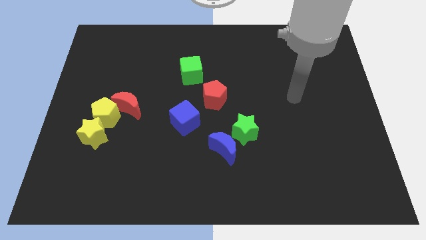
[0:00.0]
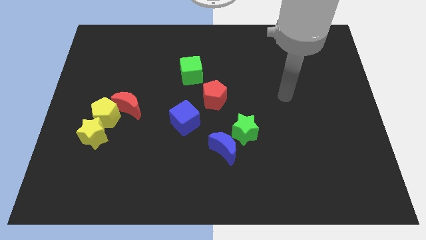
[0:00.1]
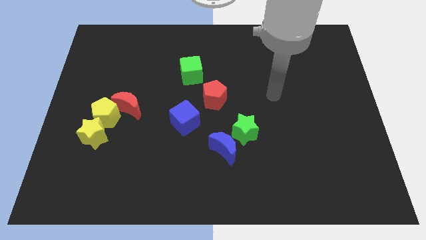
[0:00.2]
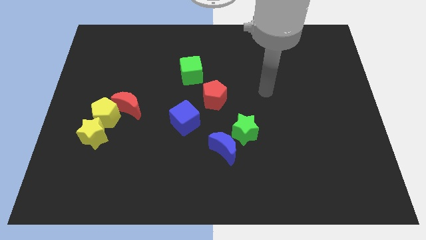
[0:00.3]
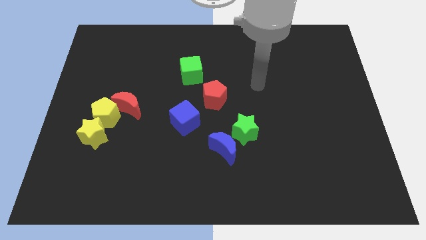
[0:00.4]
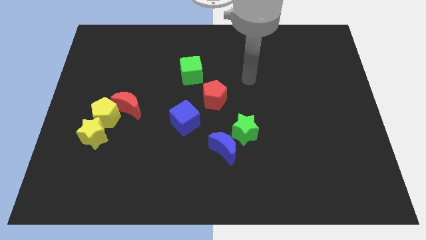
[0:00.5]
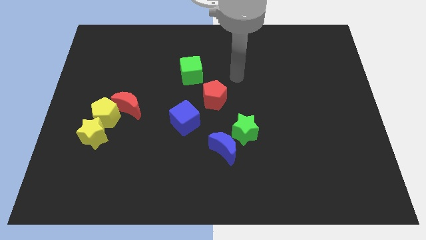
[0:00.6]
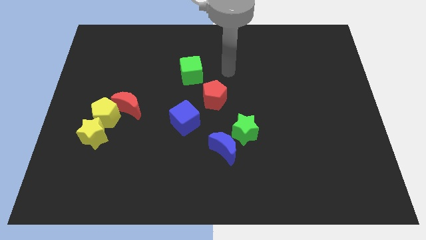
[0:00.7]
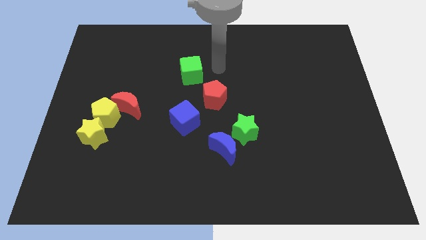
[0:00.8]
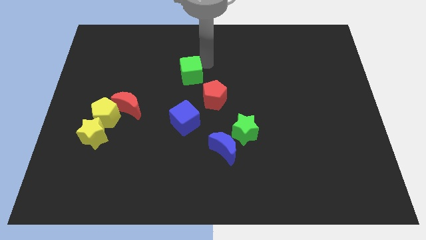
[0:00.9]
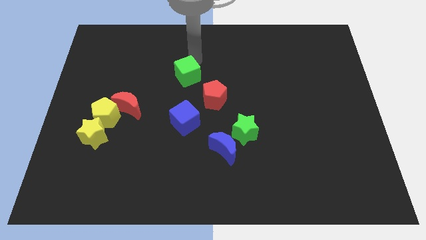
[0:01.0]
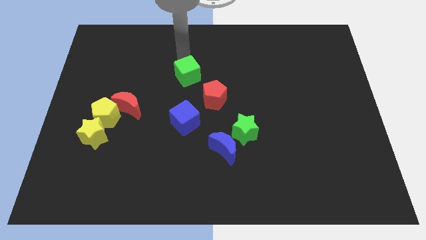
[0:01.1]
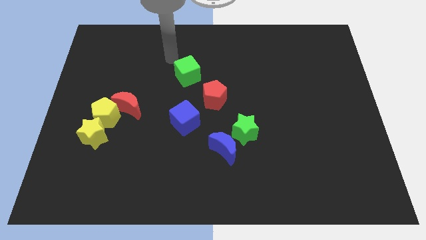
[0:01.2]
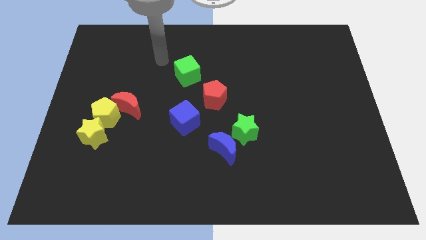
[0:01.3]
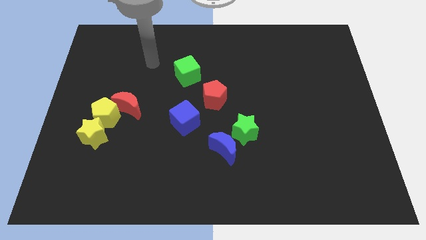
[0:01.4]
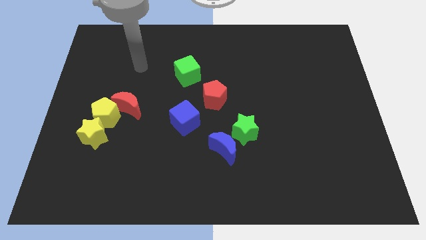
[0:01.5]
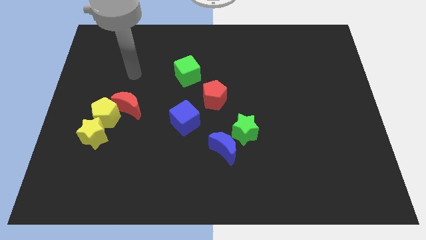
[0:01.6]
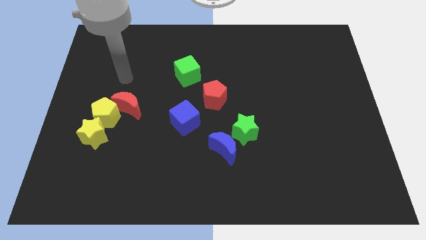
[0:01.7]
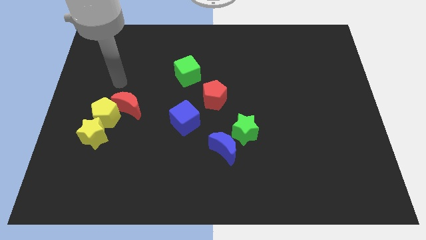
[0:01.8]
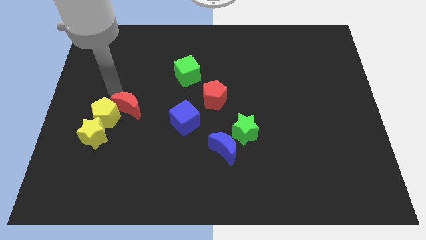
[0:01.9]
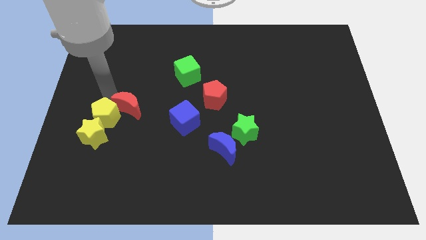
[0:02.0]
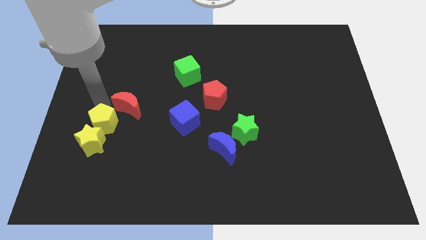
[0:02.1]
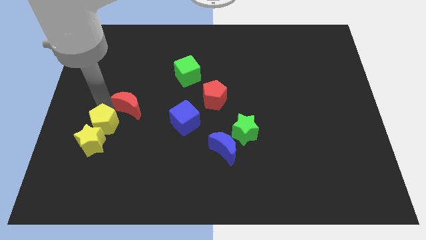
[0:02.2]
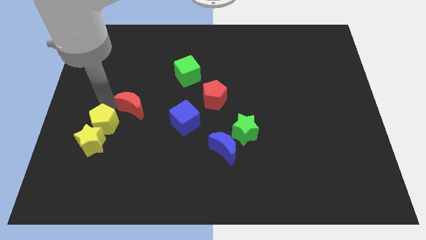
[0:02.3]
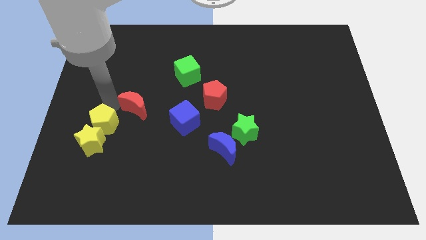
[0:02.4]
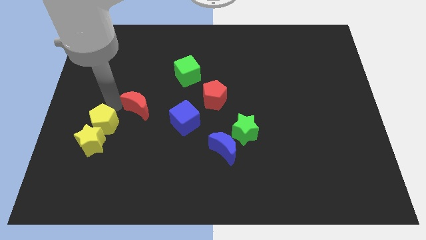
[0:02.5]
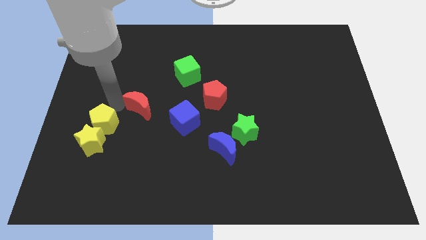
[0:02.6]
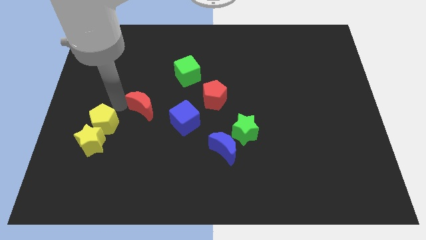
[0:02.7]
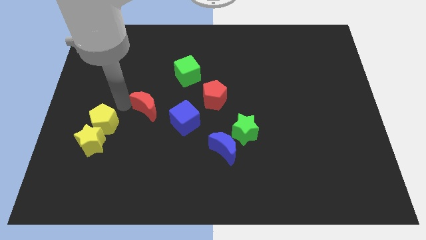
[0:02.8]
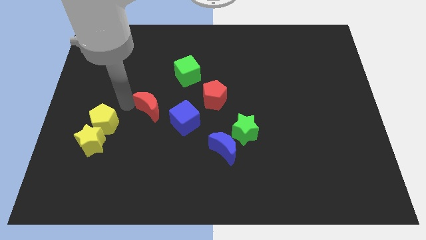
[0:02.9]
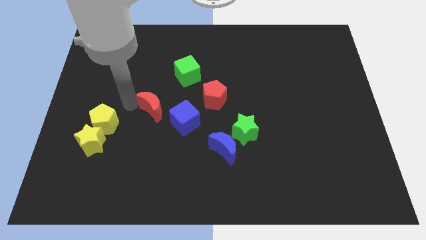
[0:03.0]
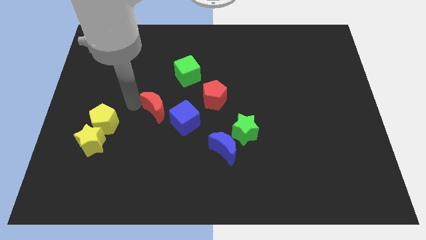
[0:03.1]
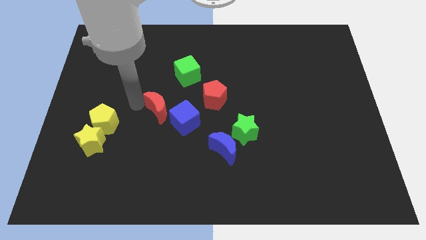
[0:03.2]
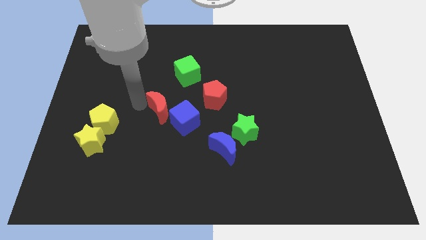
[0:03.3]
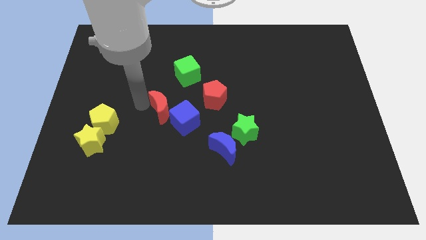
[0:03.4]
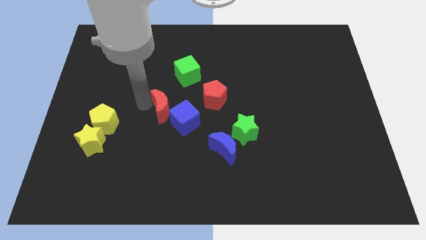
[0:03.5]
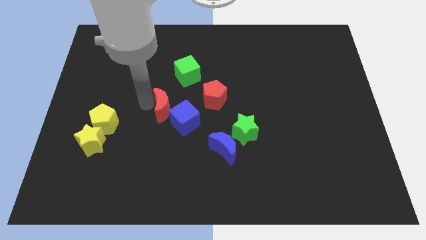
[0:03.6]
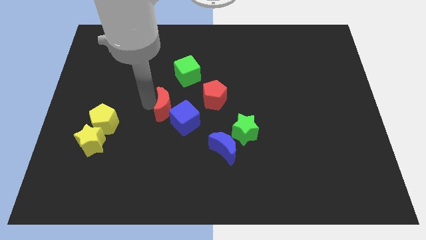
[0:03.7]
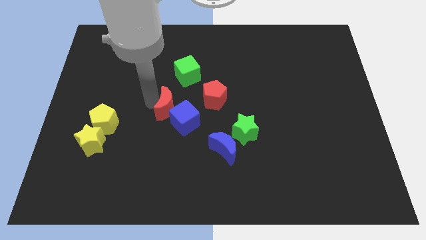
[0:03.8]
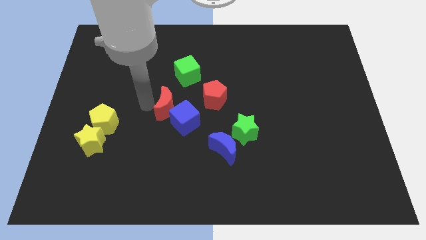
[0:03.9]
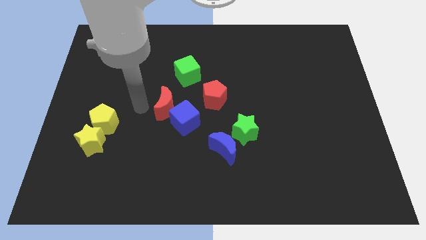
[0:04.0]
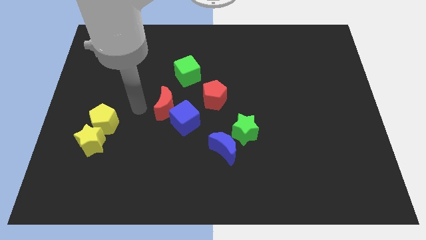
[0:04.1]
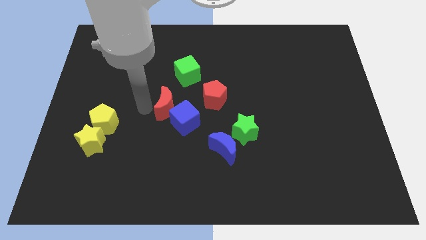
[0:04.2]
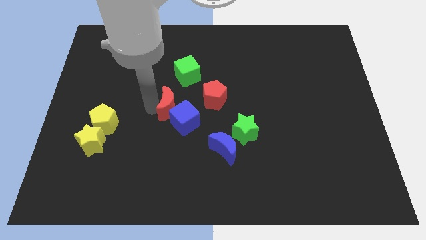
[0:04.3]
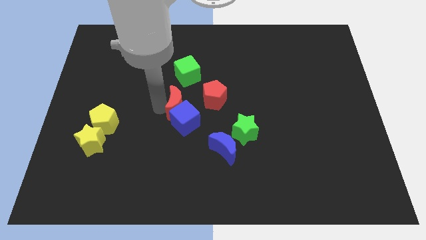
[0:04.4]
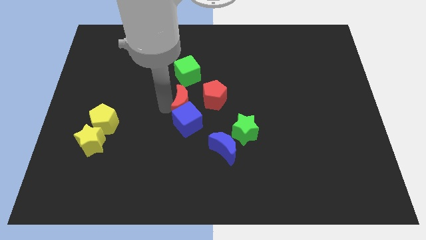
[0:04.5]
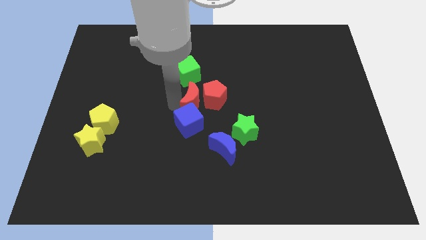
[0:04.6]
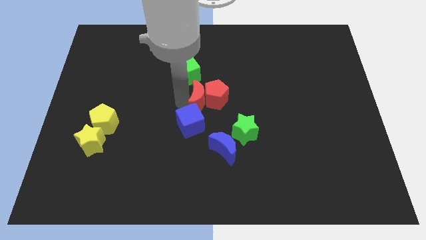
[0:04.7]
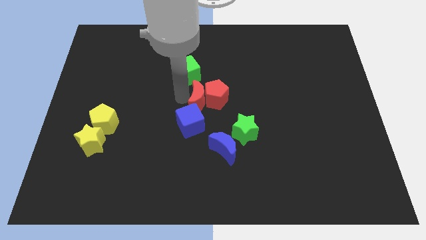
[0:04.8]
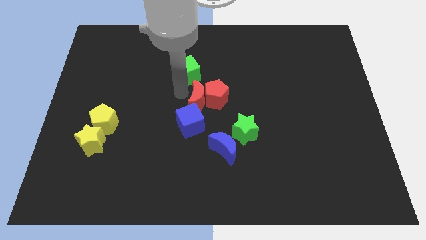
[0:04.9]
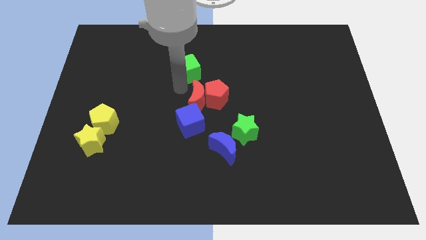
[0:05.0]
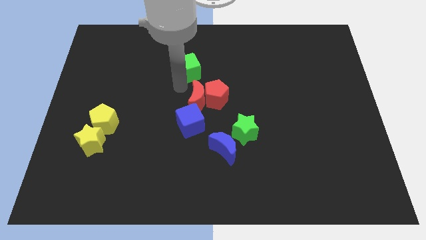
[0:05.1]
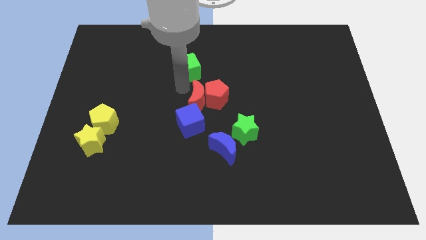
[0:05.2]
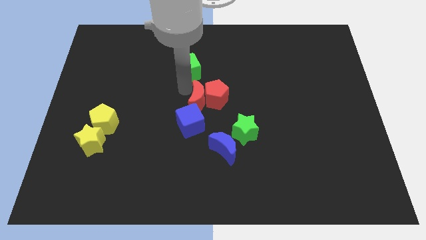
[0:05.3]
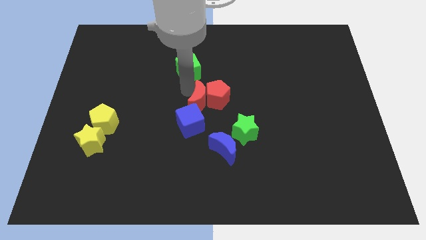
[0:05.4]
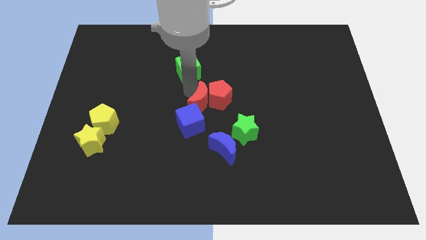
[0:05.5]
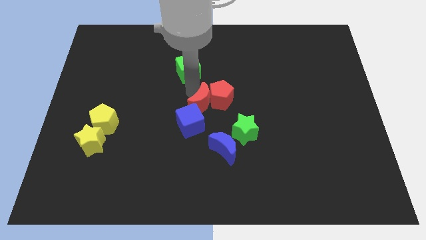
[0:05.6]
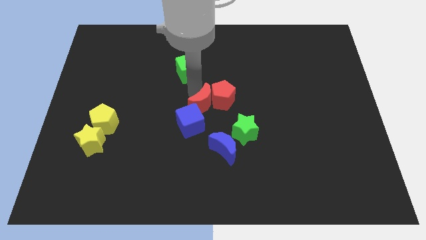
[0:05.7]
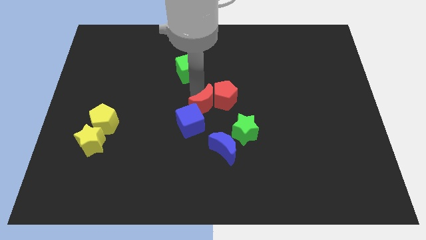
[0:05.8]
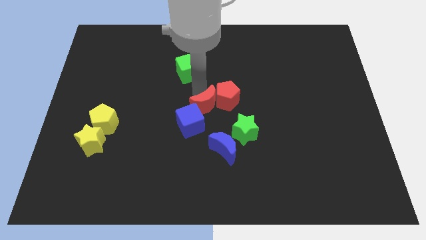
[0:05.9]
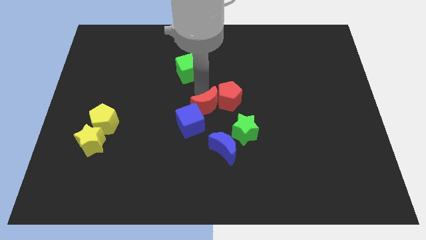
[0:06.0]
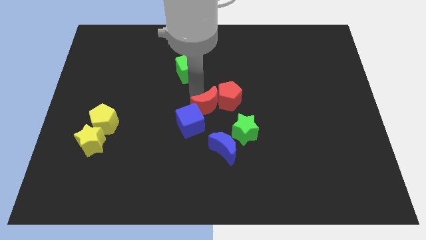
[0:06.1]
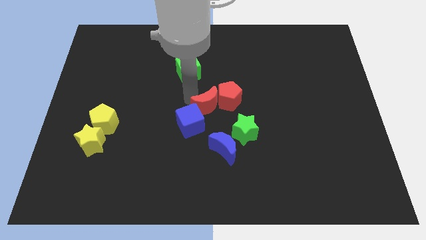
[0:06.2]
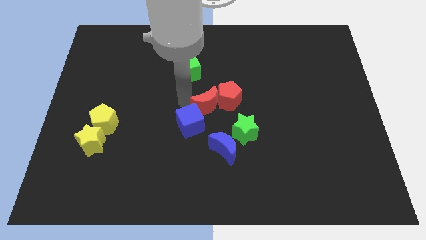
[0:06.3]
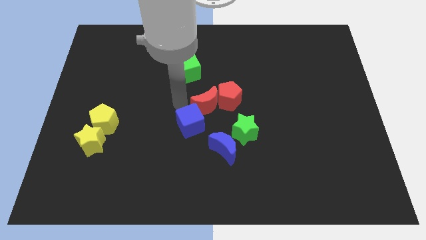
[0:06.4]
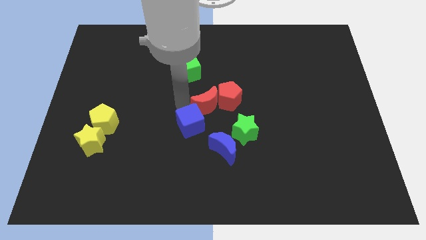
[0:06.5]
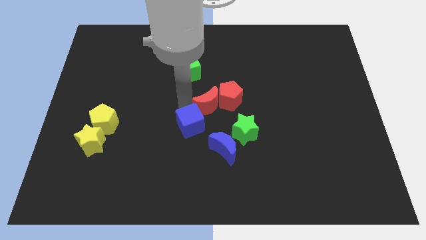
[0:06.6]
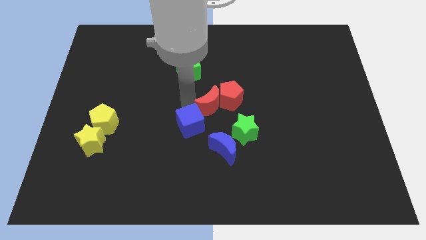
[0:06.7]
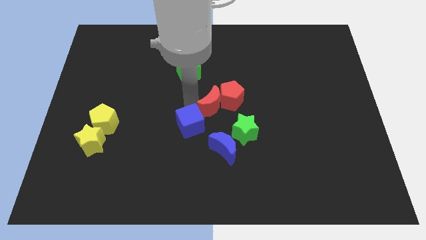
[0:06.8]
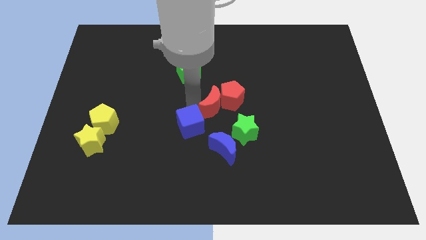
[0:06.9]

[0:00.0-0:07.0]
slide the red moon to the right

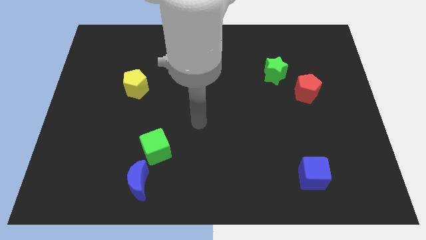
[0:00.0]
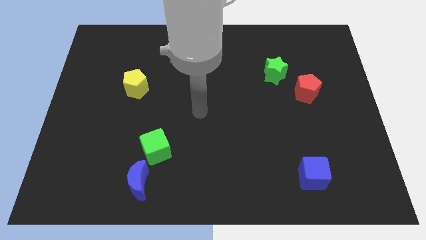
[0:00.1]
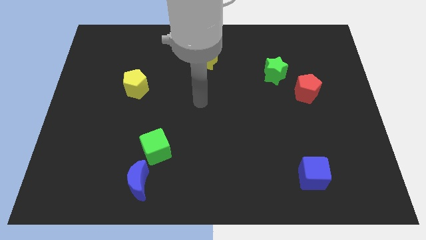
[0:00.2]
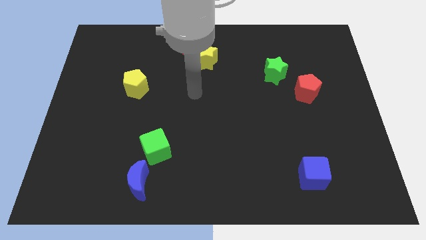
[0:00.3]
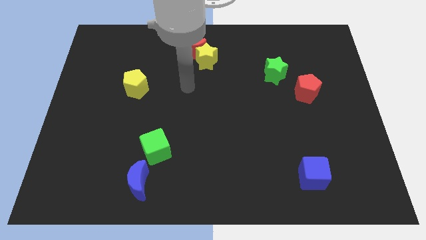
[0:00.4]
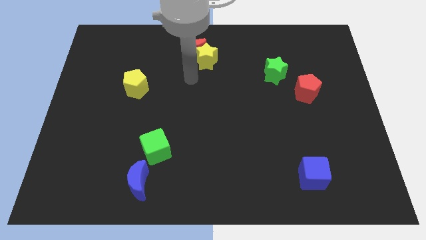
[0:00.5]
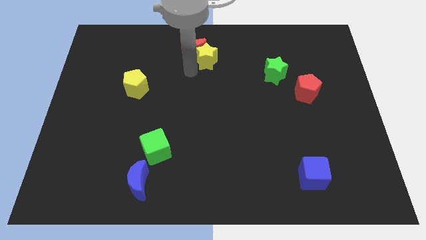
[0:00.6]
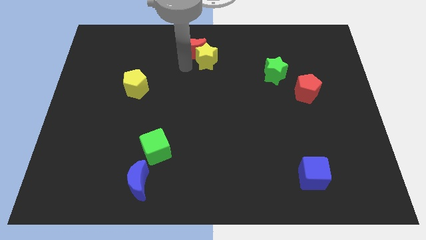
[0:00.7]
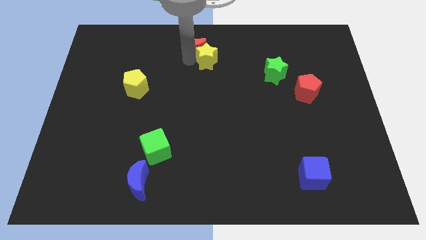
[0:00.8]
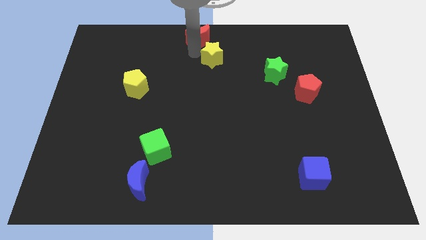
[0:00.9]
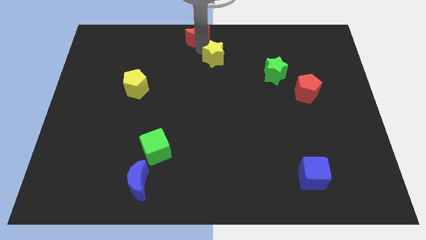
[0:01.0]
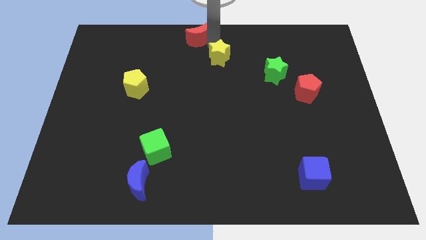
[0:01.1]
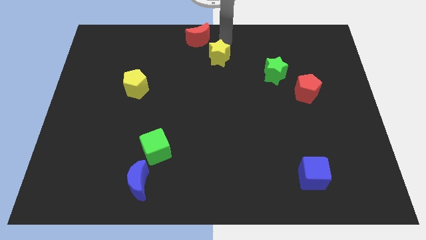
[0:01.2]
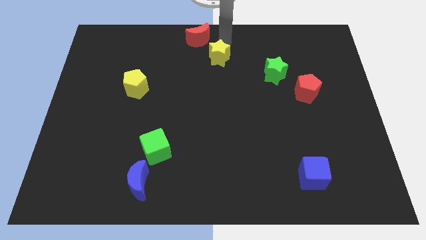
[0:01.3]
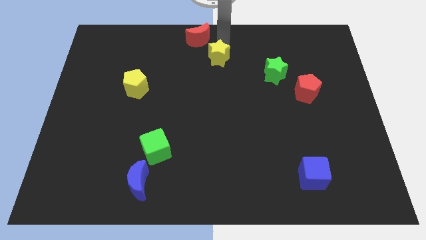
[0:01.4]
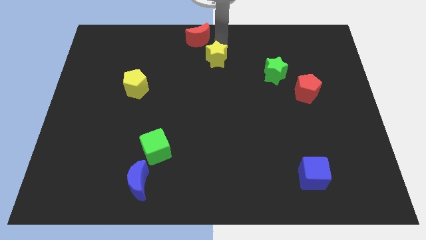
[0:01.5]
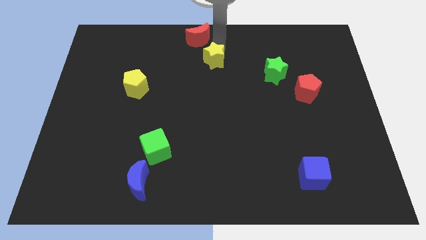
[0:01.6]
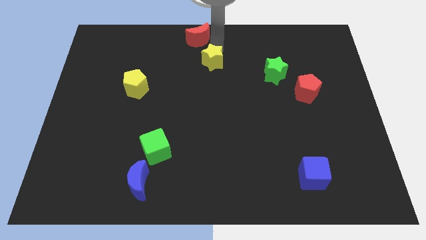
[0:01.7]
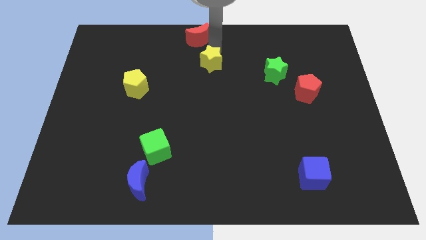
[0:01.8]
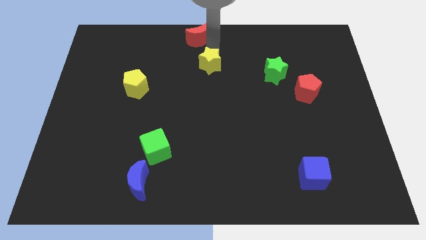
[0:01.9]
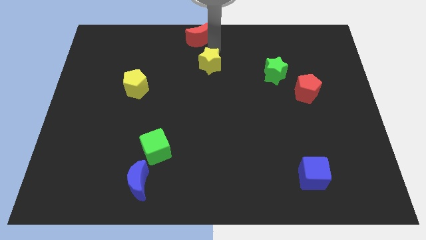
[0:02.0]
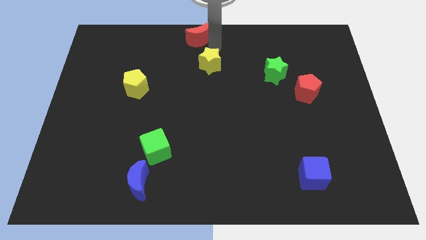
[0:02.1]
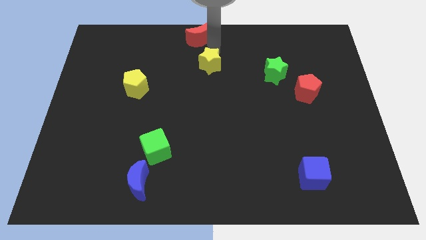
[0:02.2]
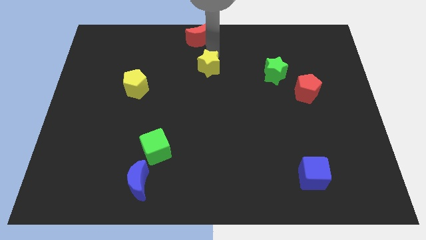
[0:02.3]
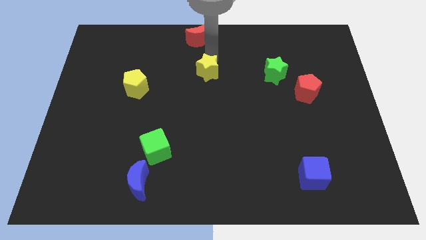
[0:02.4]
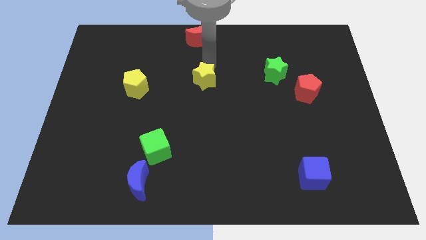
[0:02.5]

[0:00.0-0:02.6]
move the yellow star downwards somewhat
